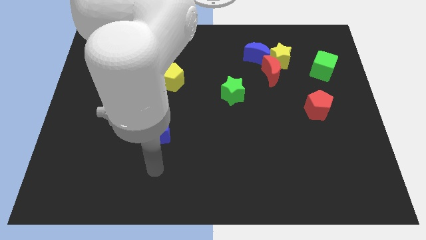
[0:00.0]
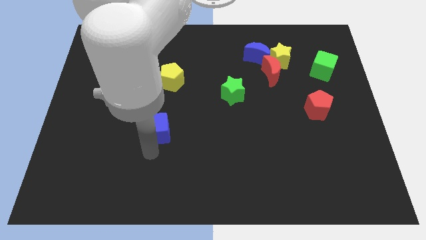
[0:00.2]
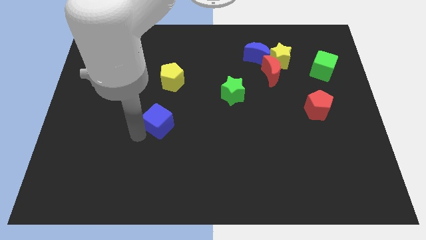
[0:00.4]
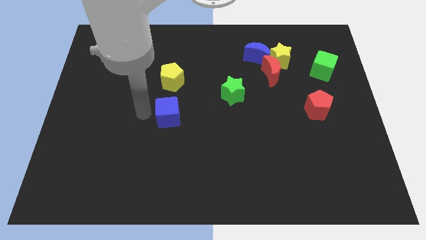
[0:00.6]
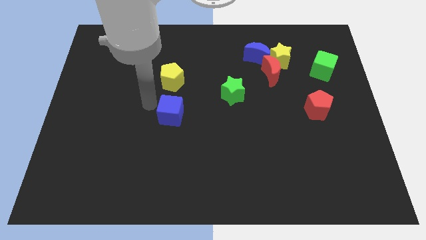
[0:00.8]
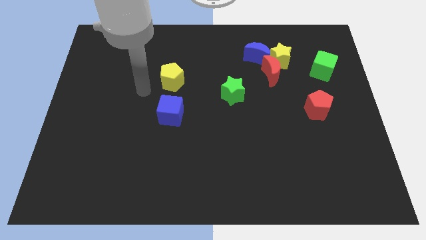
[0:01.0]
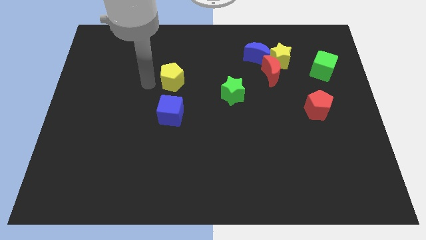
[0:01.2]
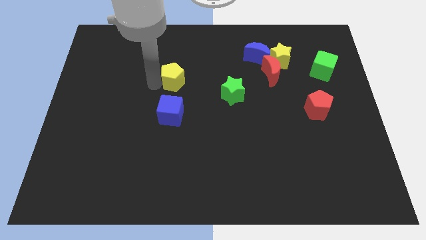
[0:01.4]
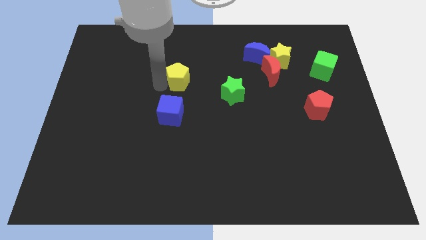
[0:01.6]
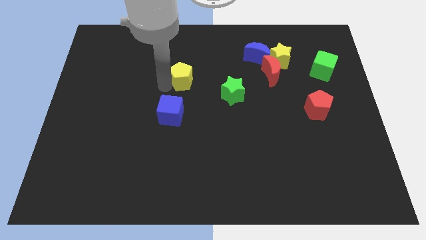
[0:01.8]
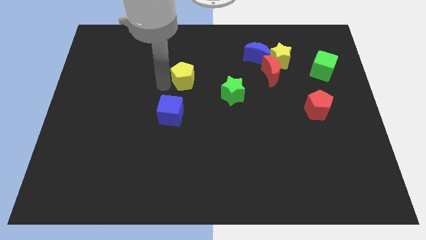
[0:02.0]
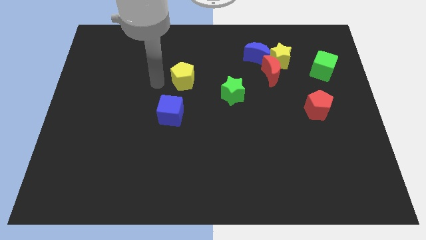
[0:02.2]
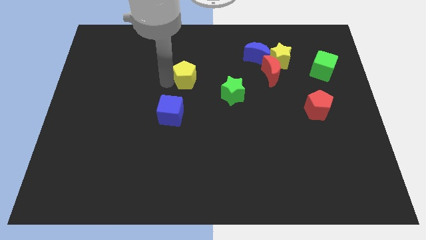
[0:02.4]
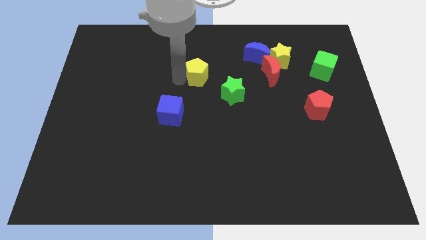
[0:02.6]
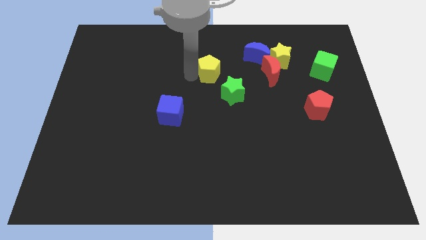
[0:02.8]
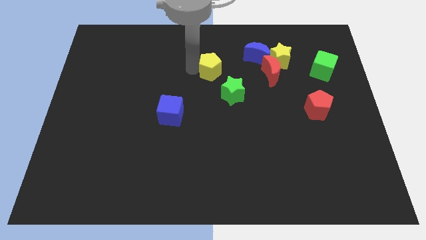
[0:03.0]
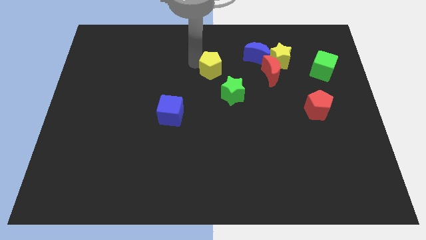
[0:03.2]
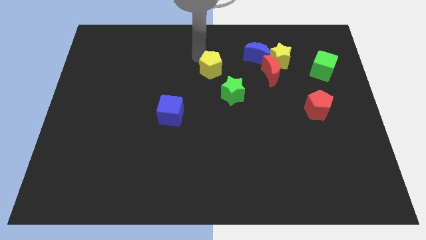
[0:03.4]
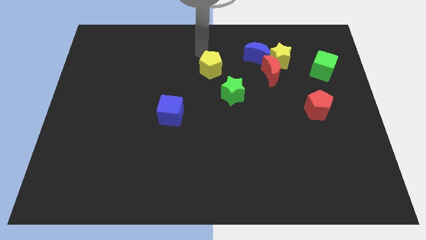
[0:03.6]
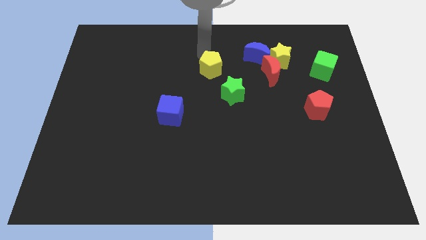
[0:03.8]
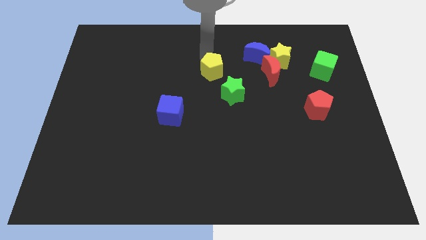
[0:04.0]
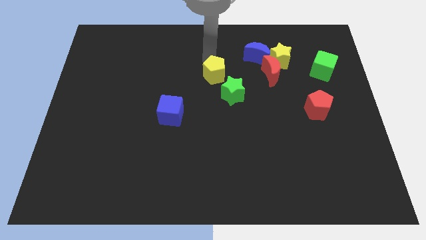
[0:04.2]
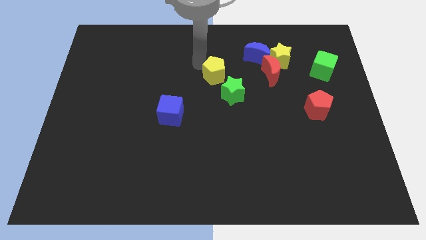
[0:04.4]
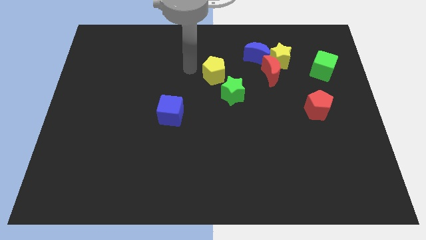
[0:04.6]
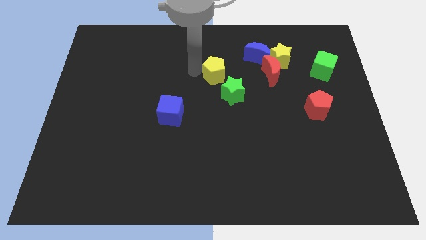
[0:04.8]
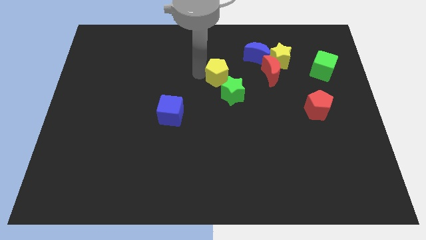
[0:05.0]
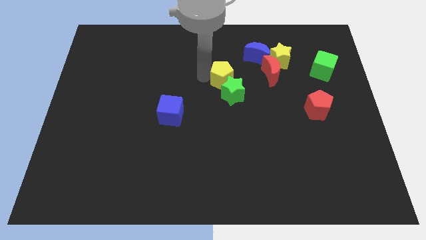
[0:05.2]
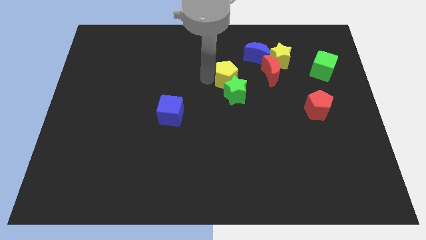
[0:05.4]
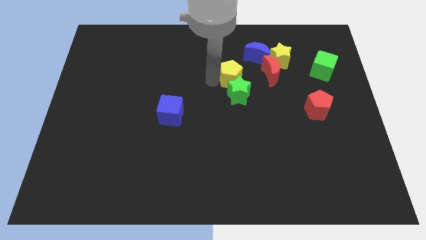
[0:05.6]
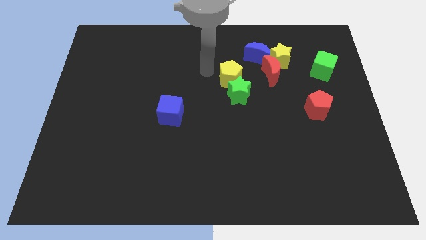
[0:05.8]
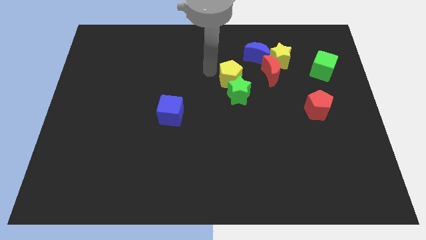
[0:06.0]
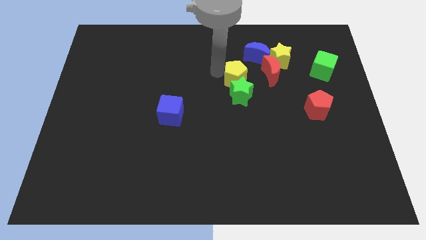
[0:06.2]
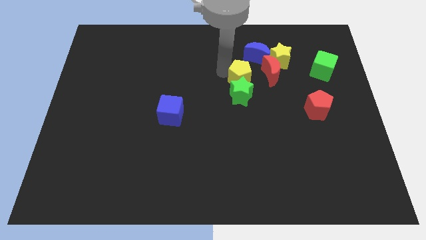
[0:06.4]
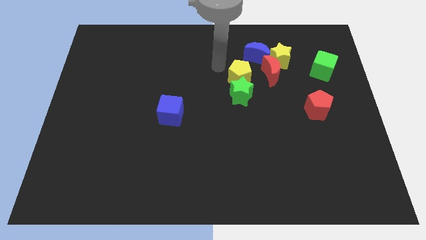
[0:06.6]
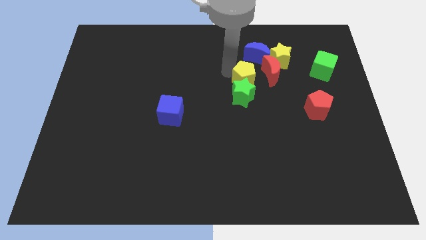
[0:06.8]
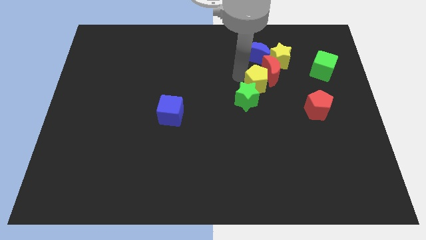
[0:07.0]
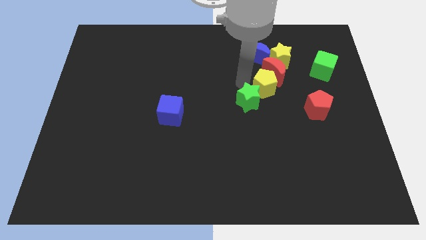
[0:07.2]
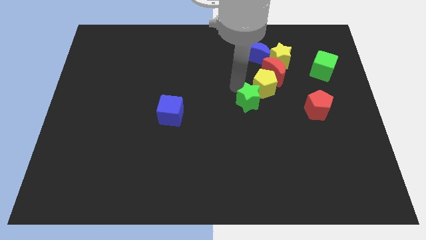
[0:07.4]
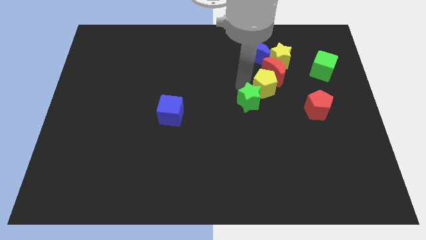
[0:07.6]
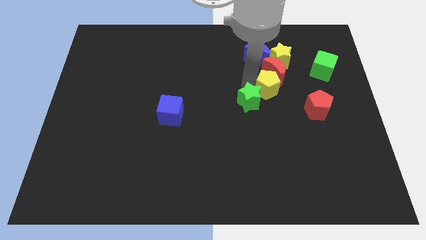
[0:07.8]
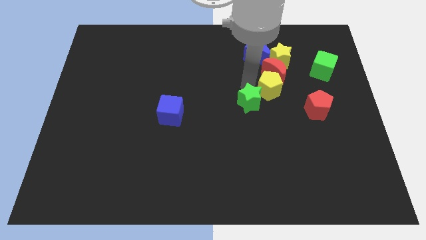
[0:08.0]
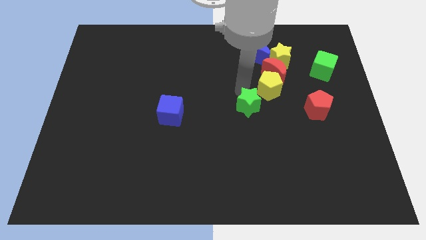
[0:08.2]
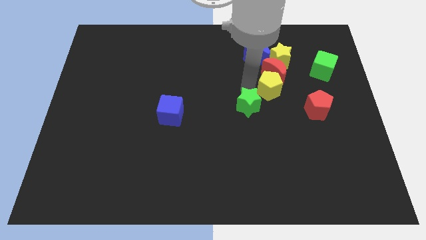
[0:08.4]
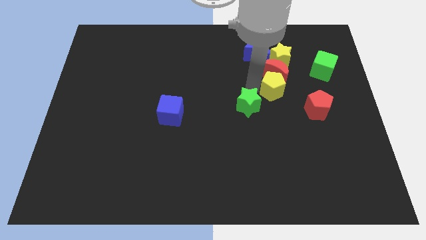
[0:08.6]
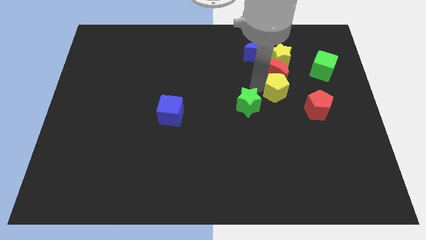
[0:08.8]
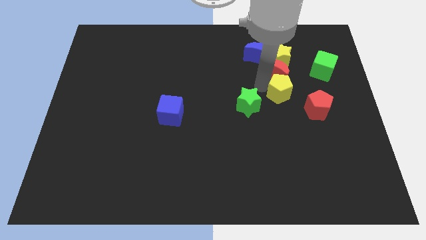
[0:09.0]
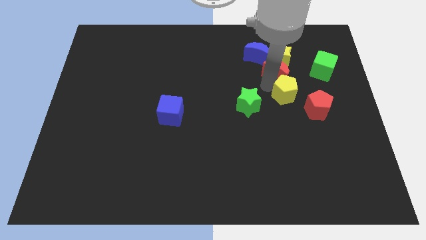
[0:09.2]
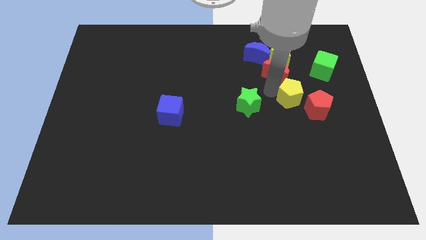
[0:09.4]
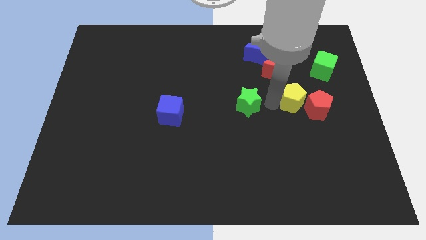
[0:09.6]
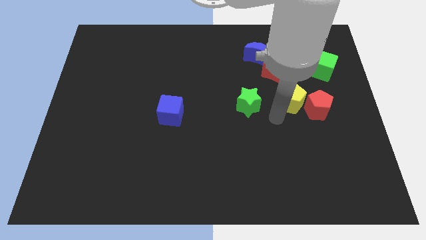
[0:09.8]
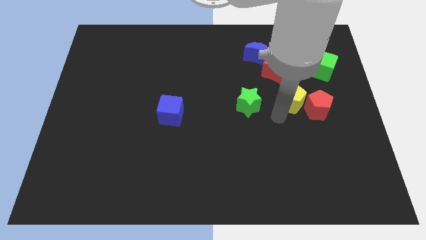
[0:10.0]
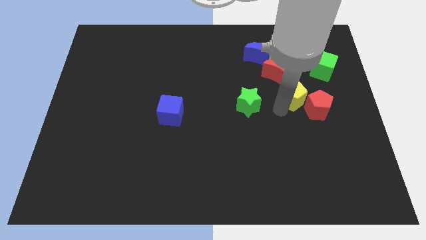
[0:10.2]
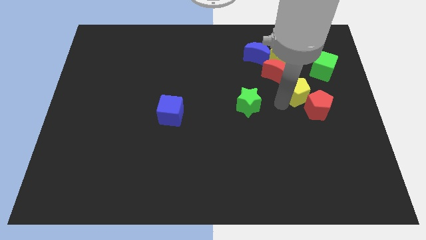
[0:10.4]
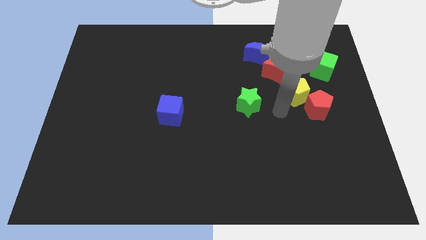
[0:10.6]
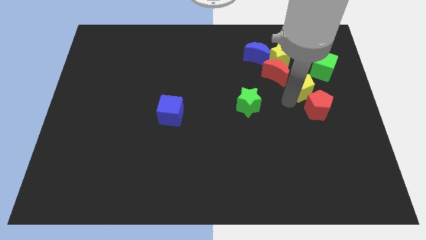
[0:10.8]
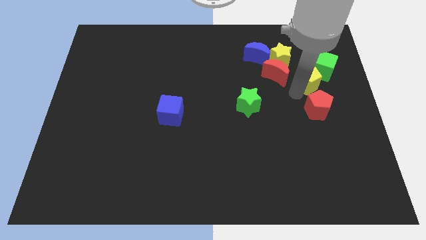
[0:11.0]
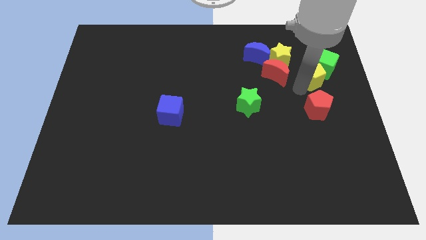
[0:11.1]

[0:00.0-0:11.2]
push the yellow pentagon next to the green cube

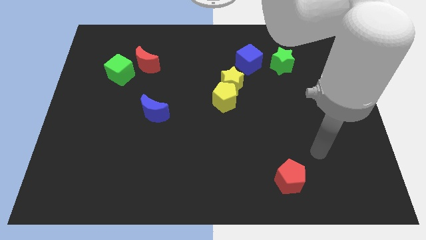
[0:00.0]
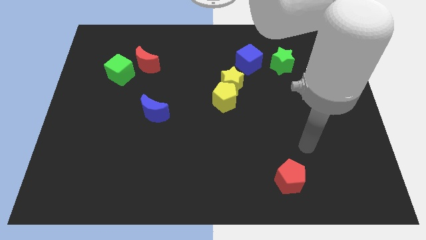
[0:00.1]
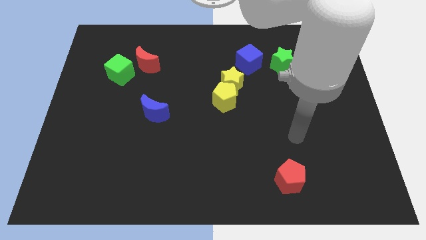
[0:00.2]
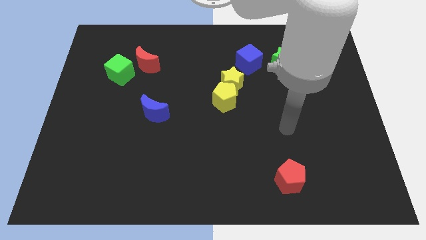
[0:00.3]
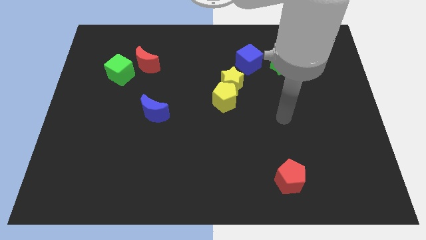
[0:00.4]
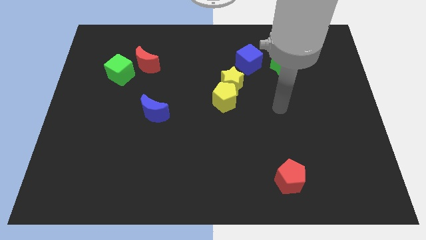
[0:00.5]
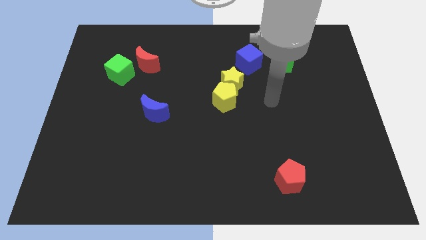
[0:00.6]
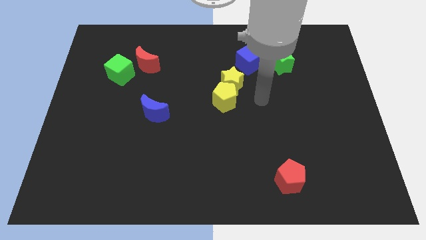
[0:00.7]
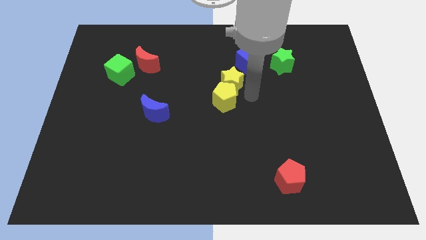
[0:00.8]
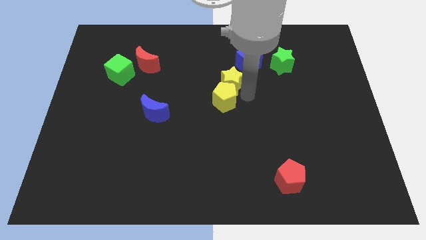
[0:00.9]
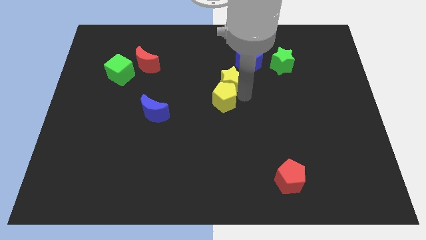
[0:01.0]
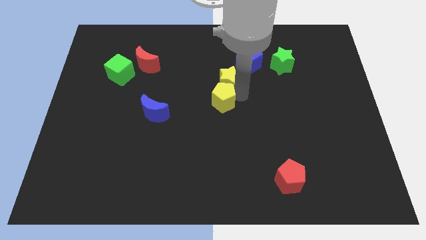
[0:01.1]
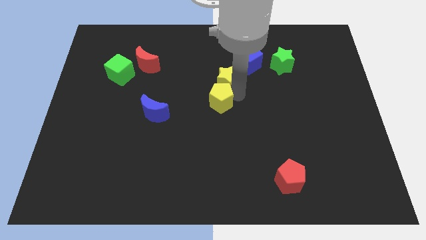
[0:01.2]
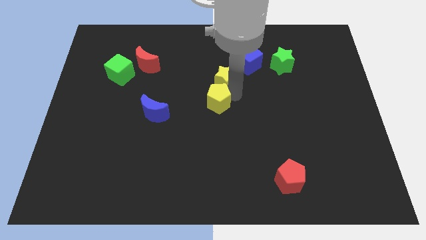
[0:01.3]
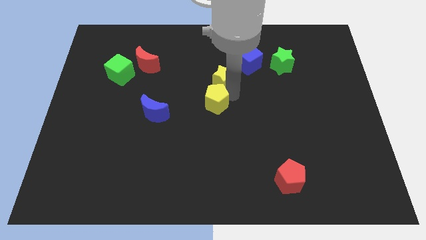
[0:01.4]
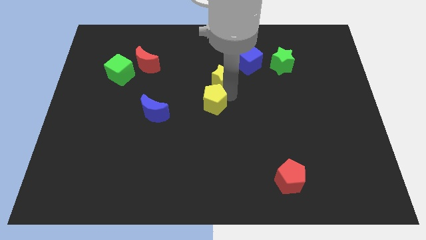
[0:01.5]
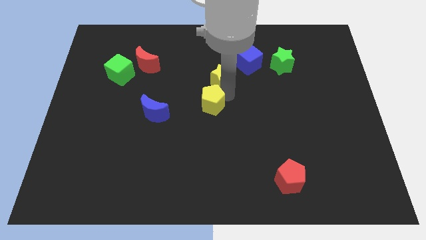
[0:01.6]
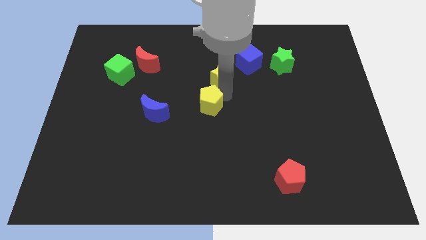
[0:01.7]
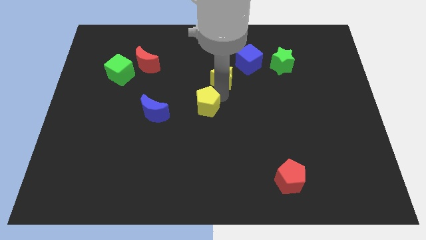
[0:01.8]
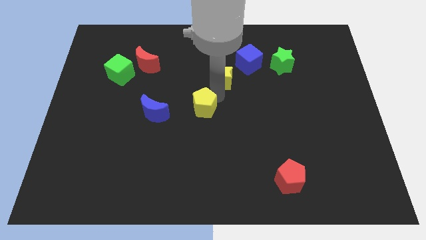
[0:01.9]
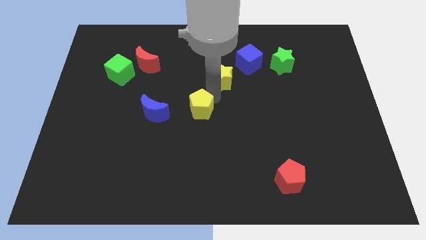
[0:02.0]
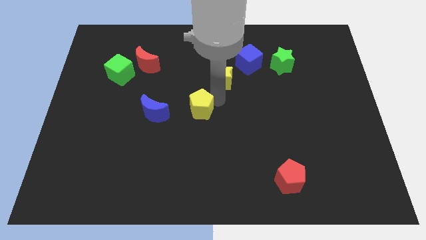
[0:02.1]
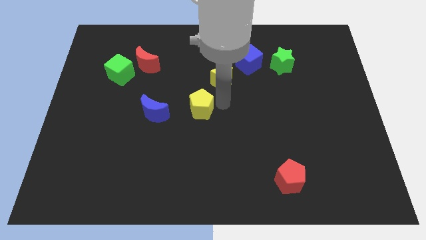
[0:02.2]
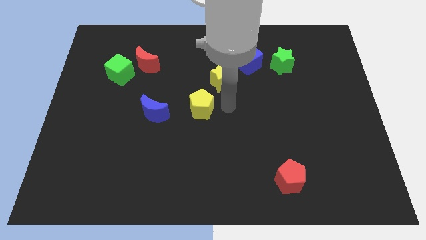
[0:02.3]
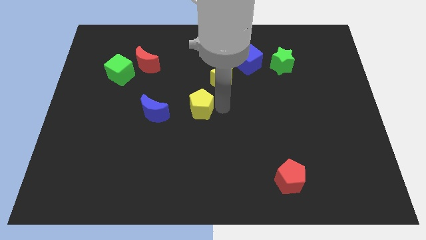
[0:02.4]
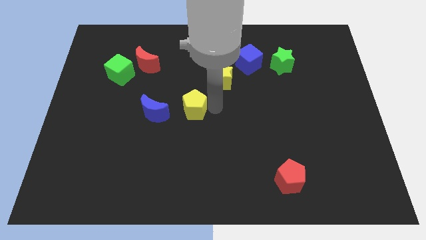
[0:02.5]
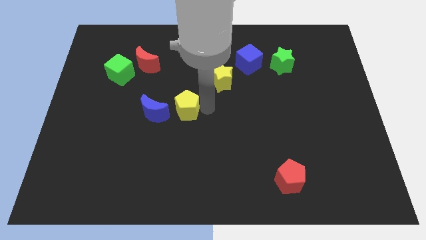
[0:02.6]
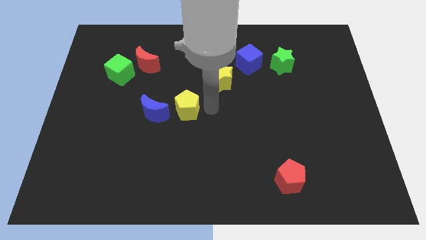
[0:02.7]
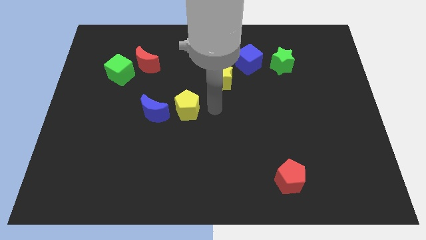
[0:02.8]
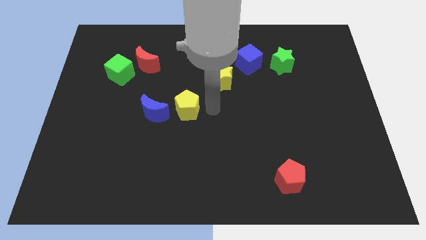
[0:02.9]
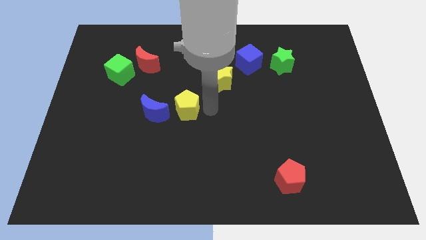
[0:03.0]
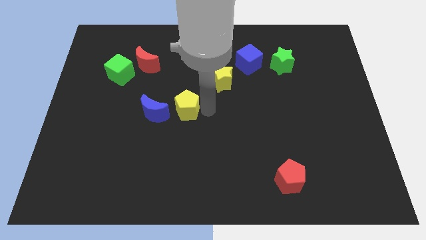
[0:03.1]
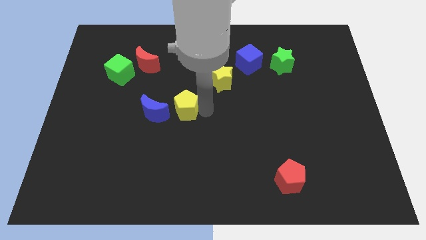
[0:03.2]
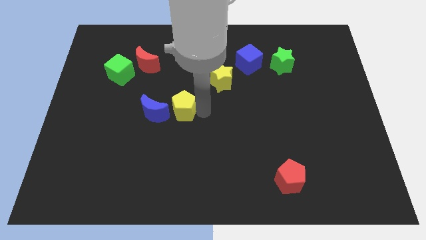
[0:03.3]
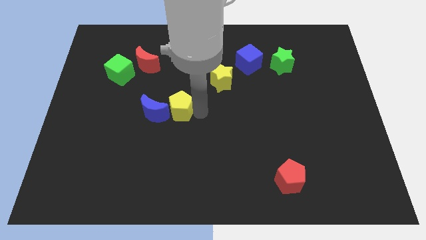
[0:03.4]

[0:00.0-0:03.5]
move the yellow pentagon close to the blue moon
